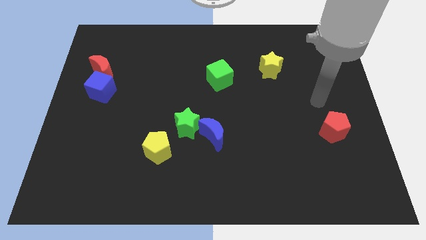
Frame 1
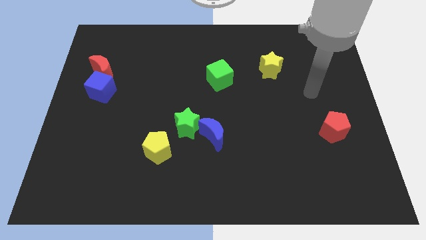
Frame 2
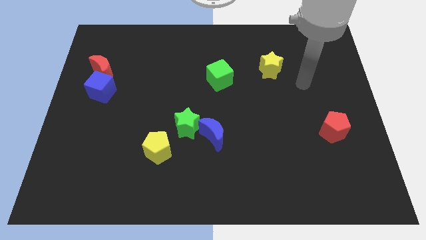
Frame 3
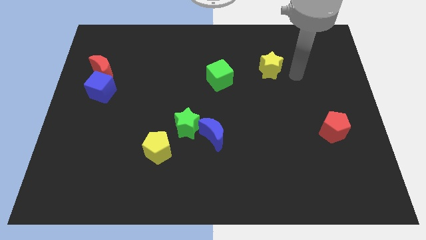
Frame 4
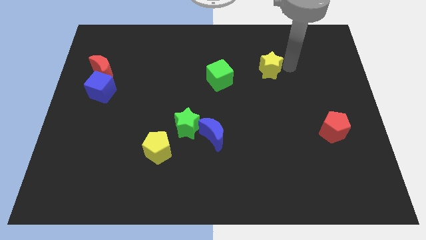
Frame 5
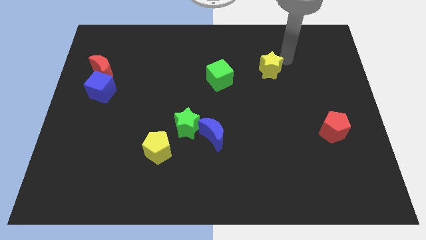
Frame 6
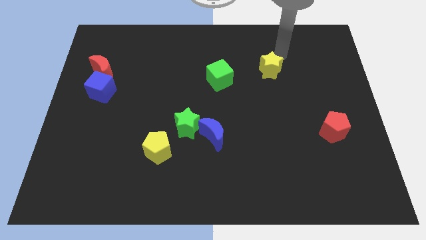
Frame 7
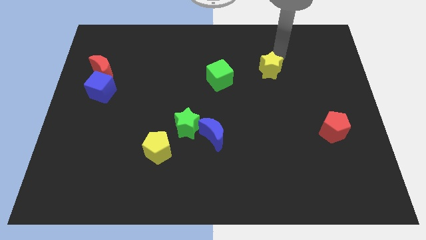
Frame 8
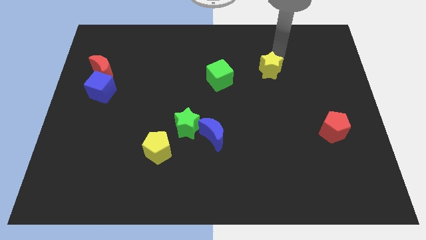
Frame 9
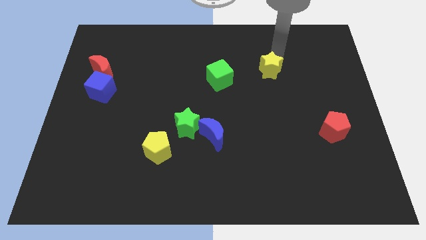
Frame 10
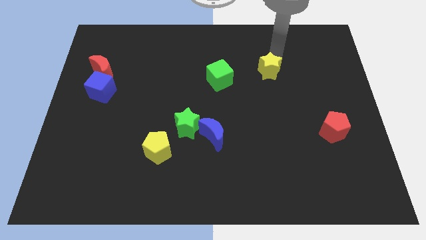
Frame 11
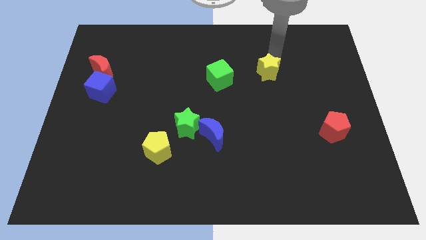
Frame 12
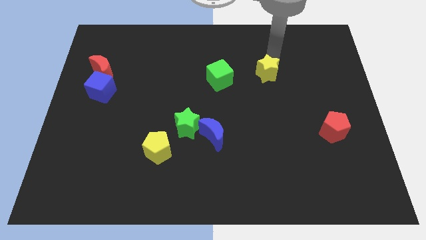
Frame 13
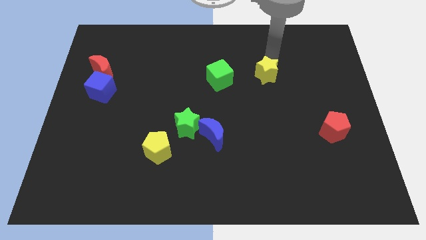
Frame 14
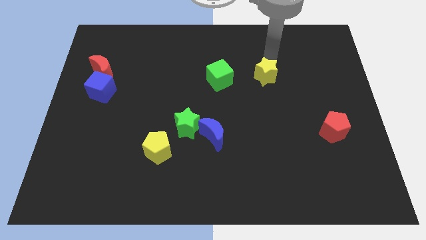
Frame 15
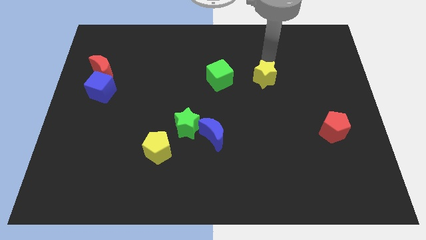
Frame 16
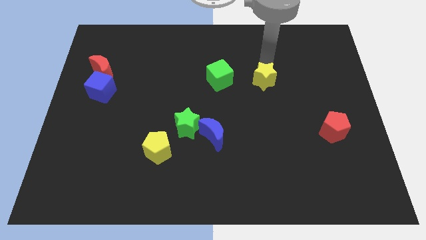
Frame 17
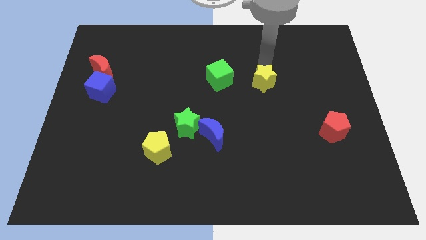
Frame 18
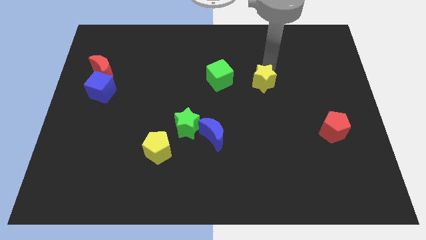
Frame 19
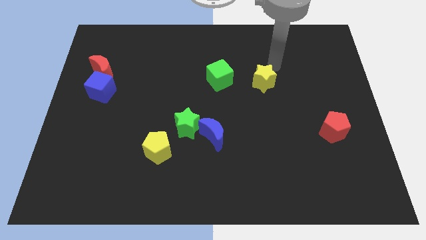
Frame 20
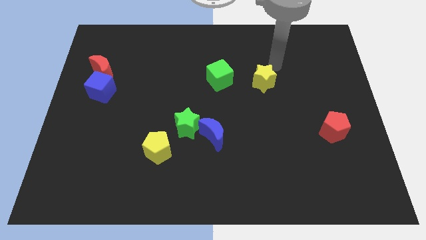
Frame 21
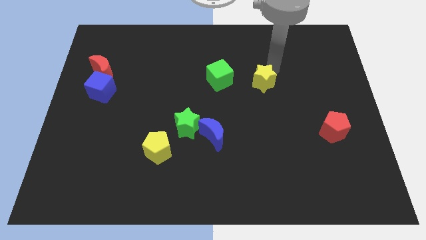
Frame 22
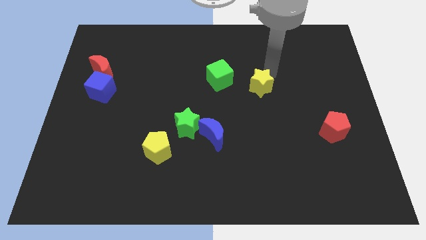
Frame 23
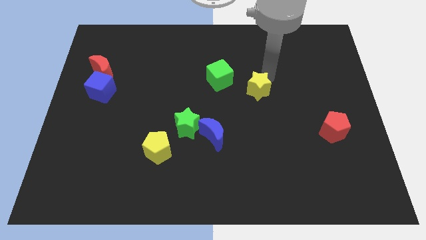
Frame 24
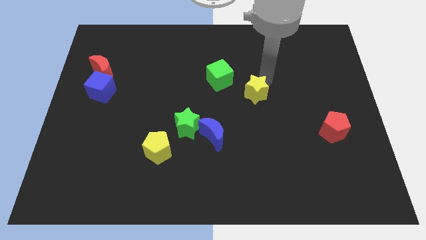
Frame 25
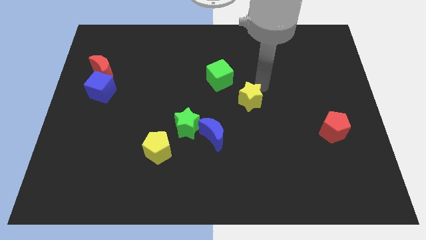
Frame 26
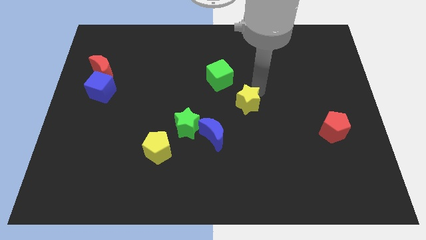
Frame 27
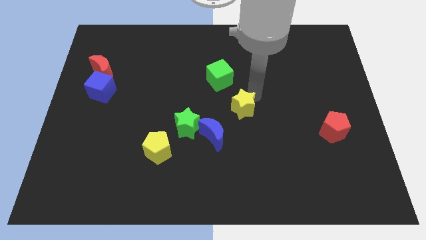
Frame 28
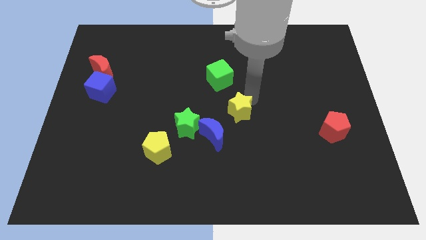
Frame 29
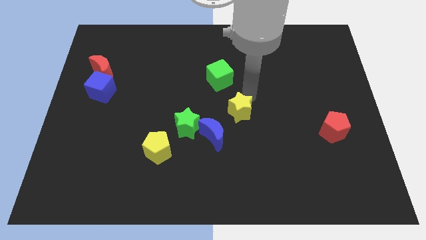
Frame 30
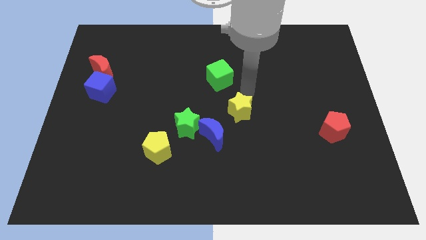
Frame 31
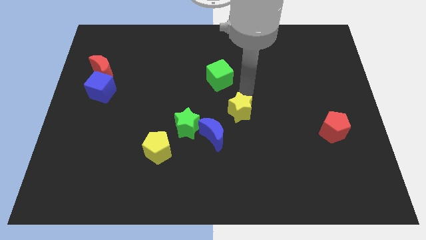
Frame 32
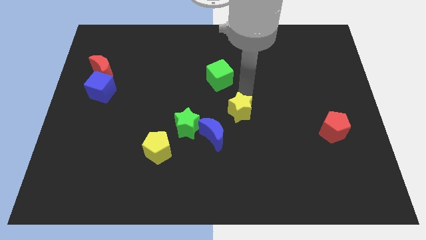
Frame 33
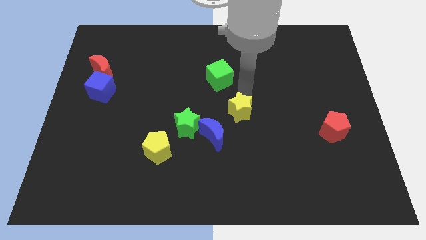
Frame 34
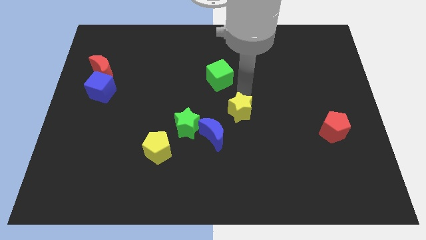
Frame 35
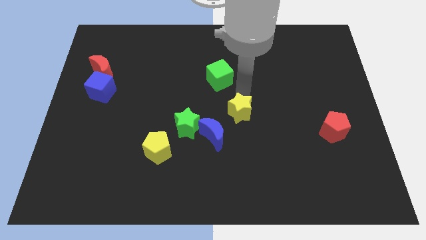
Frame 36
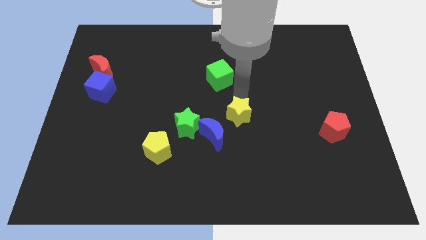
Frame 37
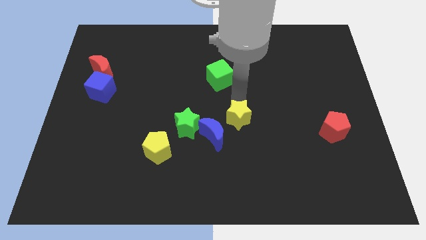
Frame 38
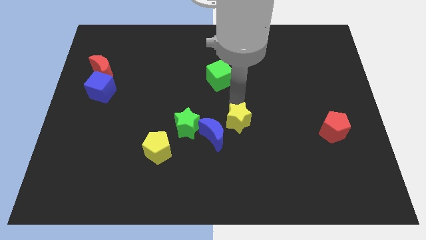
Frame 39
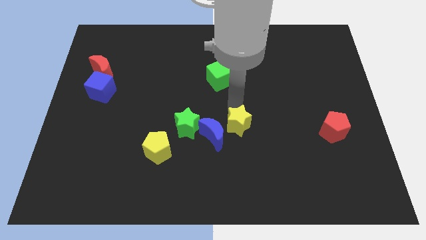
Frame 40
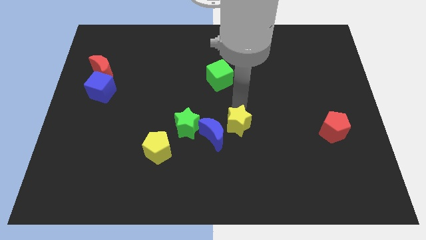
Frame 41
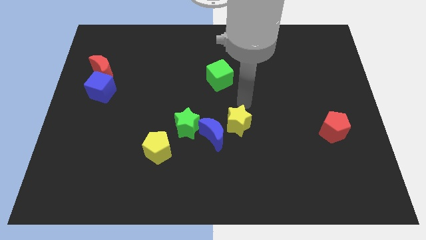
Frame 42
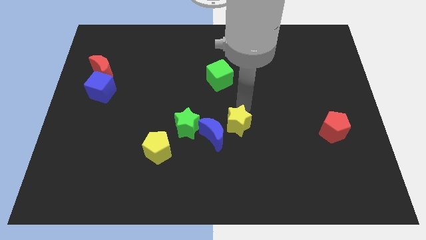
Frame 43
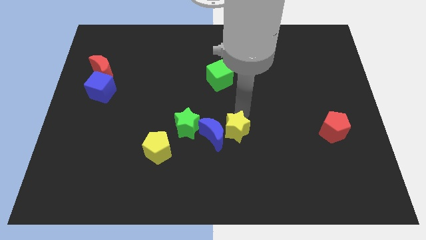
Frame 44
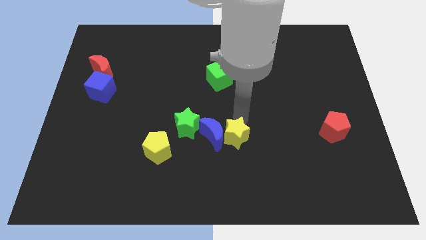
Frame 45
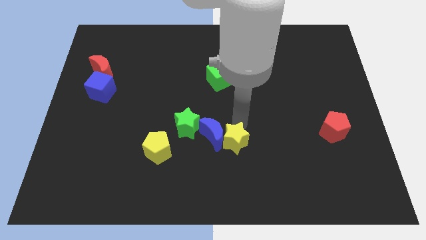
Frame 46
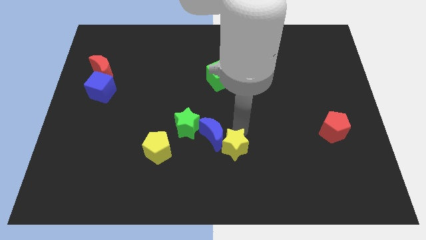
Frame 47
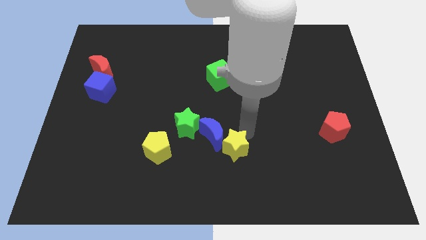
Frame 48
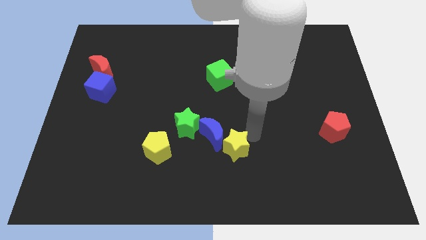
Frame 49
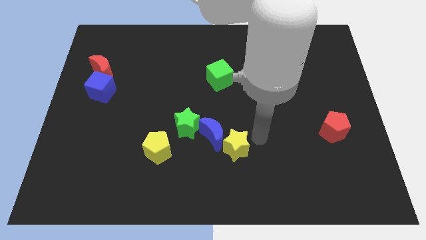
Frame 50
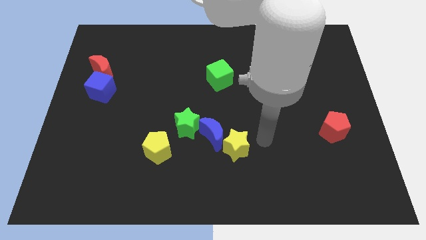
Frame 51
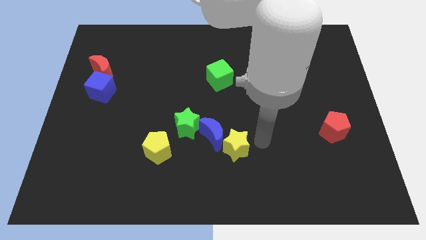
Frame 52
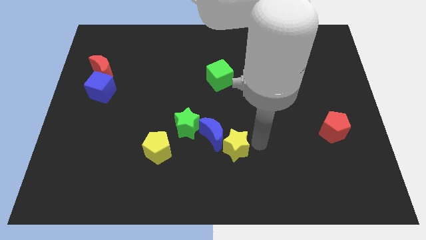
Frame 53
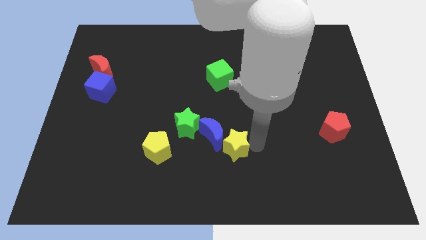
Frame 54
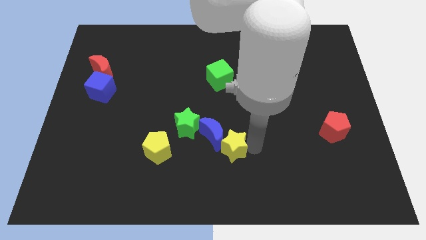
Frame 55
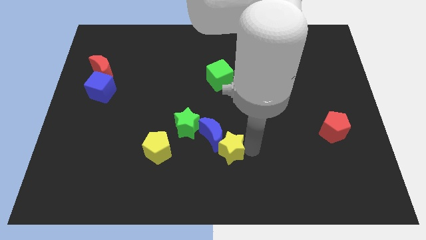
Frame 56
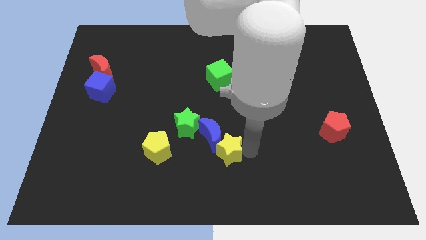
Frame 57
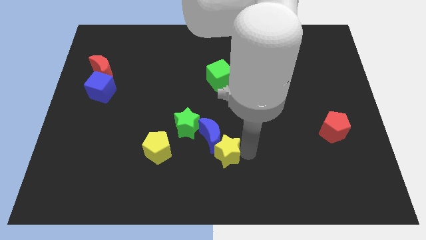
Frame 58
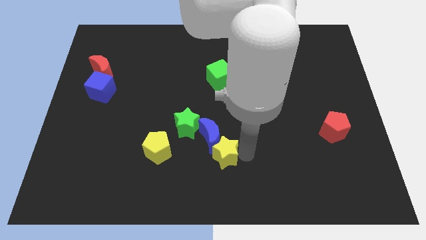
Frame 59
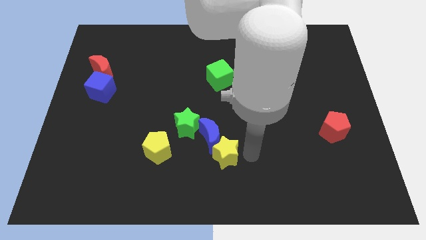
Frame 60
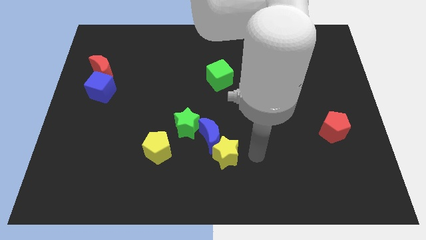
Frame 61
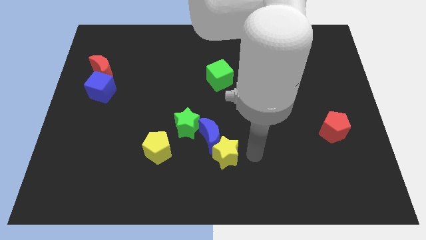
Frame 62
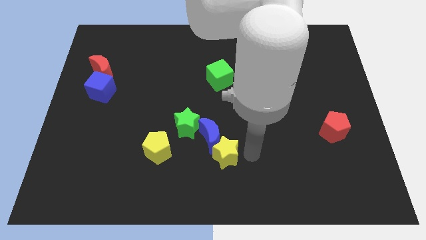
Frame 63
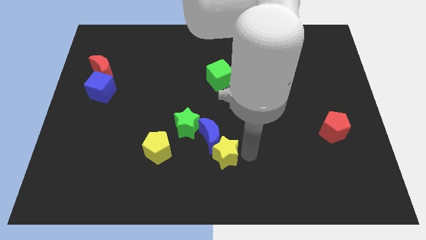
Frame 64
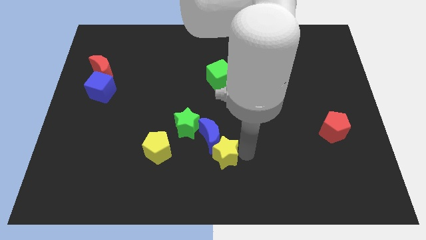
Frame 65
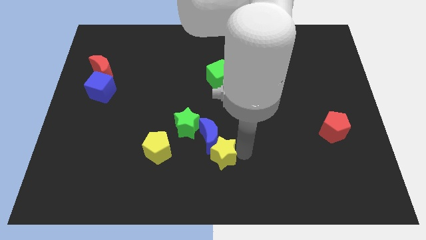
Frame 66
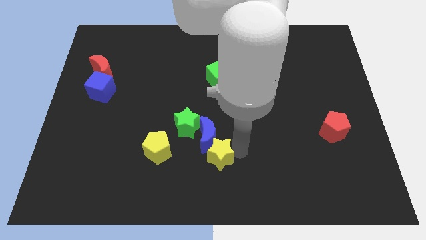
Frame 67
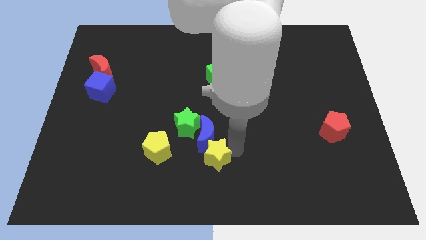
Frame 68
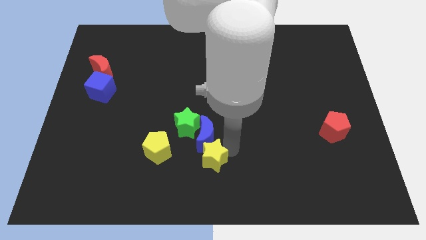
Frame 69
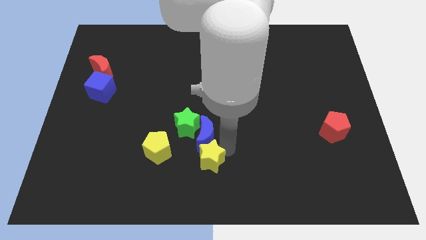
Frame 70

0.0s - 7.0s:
push the yellow star diagonally down and to the left of the blue moon

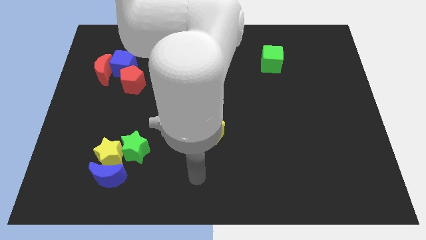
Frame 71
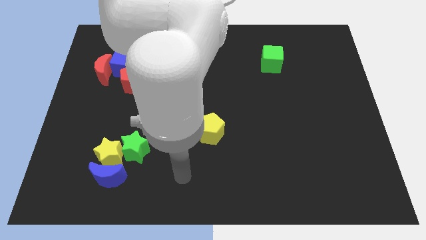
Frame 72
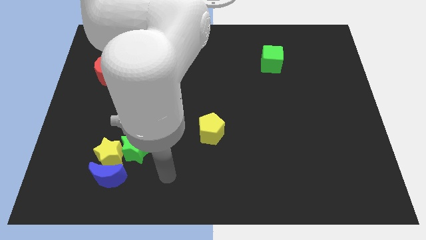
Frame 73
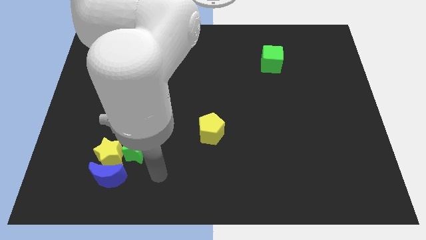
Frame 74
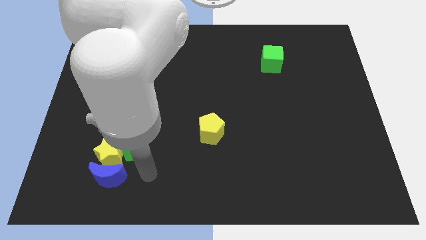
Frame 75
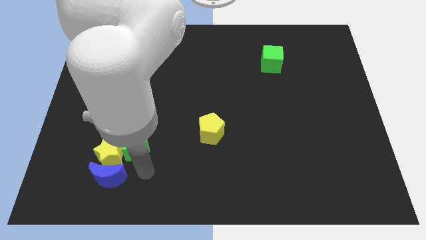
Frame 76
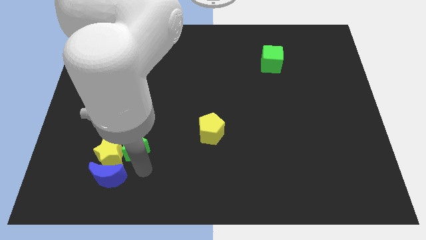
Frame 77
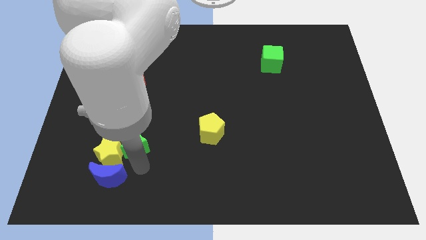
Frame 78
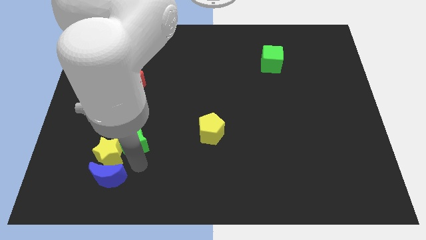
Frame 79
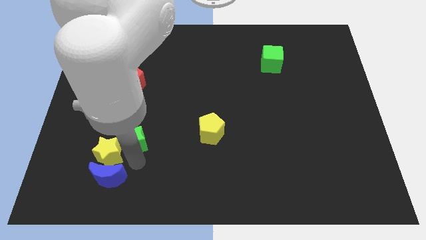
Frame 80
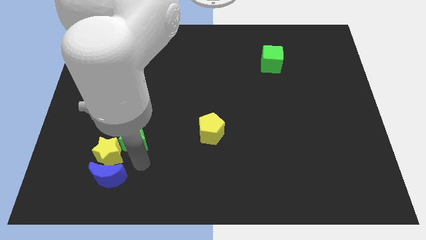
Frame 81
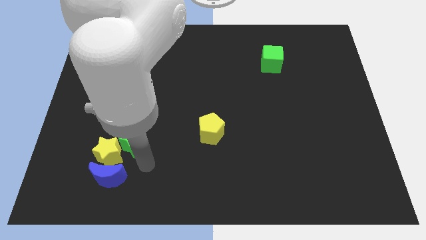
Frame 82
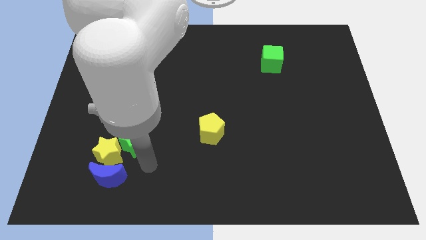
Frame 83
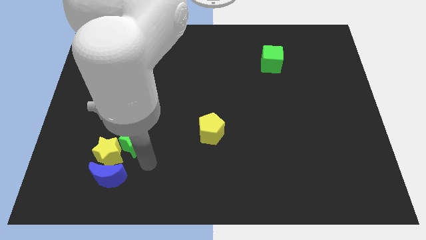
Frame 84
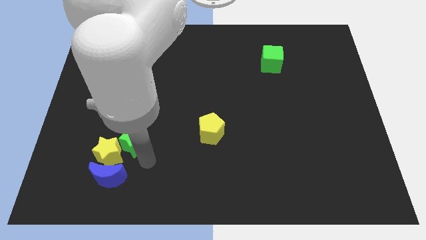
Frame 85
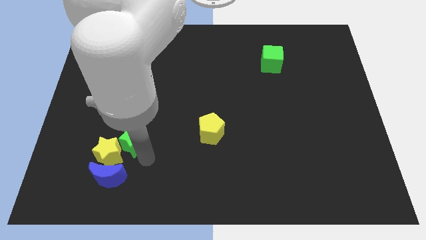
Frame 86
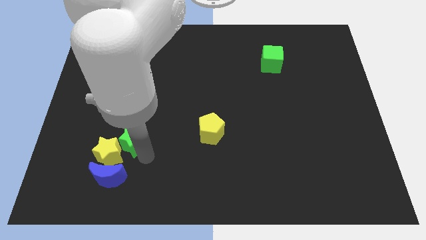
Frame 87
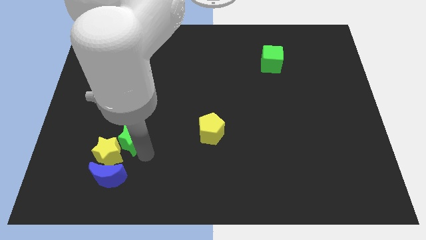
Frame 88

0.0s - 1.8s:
move the green star above the yellow star
